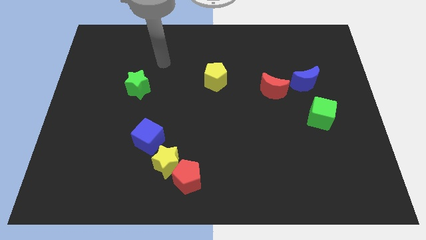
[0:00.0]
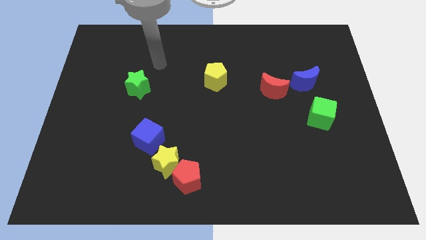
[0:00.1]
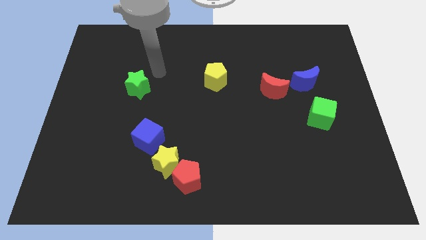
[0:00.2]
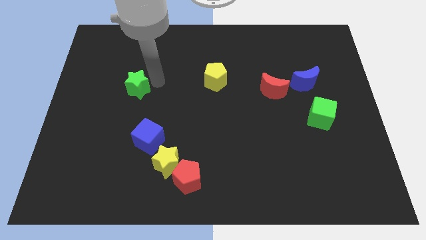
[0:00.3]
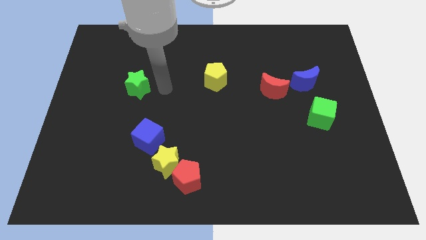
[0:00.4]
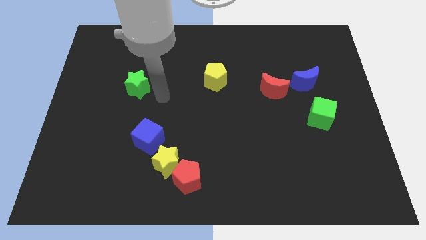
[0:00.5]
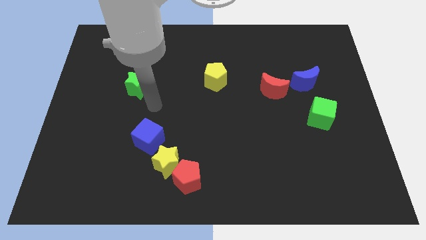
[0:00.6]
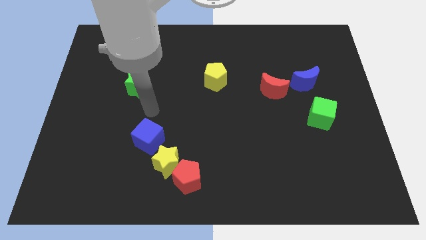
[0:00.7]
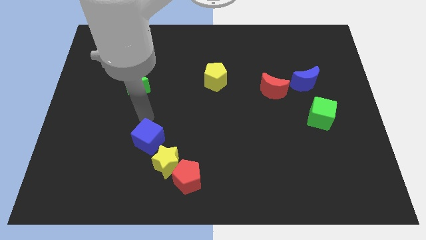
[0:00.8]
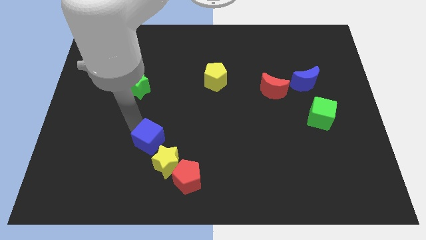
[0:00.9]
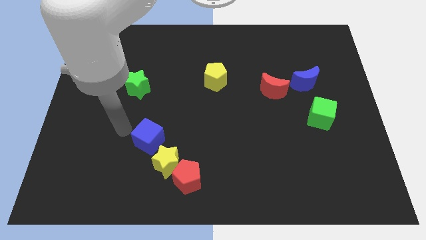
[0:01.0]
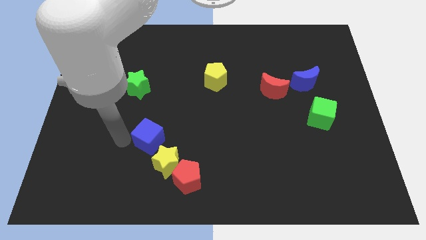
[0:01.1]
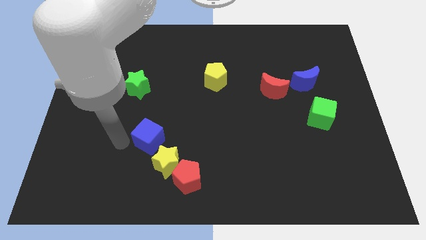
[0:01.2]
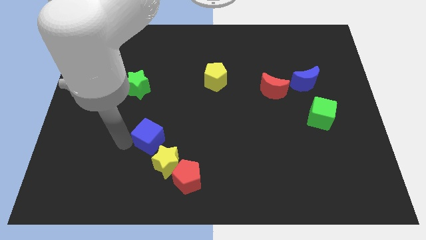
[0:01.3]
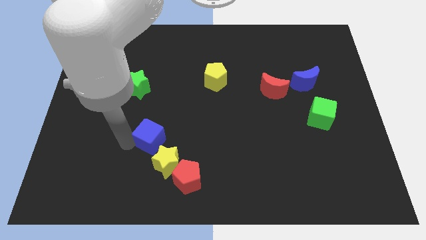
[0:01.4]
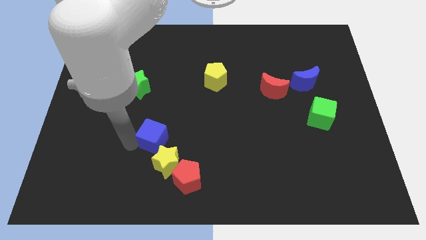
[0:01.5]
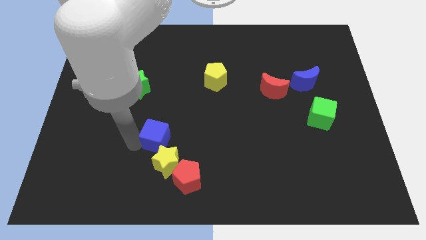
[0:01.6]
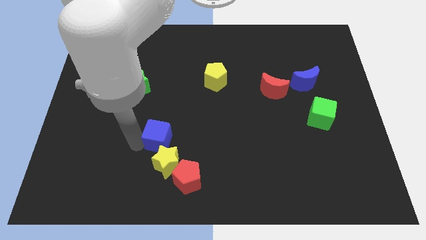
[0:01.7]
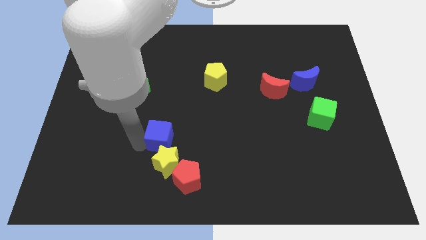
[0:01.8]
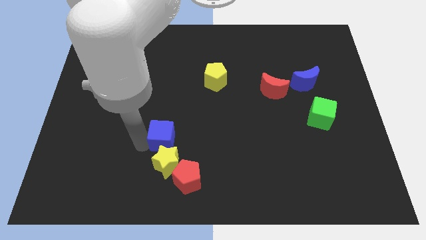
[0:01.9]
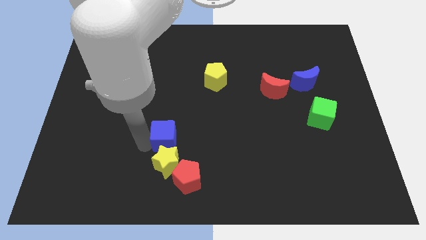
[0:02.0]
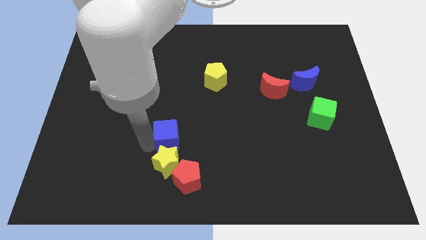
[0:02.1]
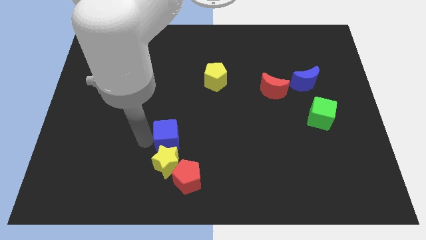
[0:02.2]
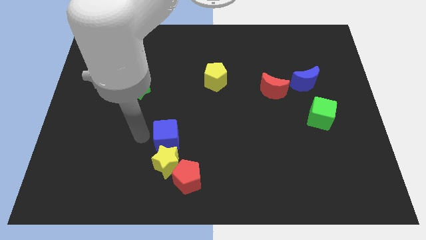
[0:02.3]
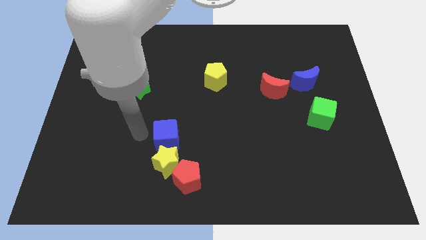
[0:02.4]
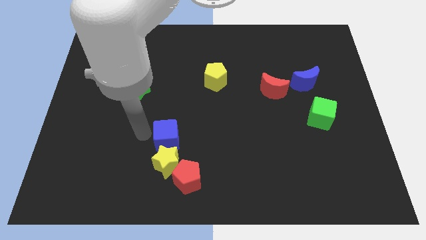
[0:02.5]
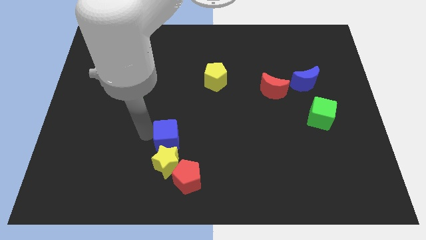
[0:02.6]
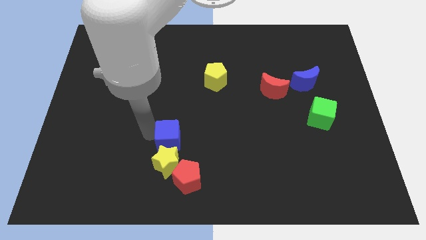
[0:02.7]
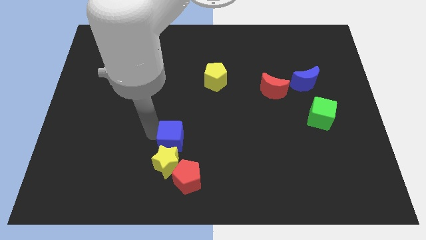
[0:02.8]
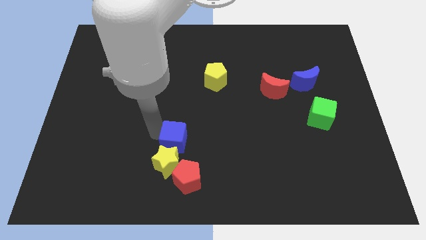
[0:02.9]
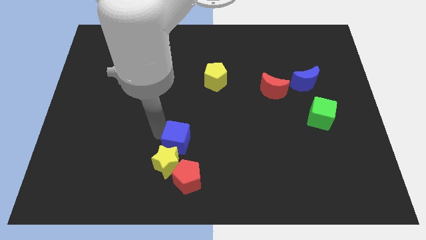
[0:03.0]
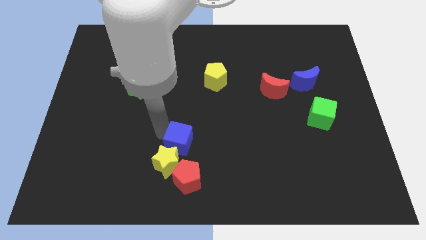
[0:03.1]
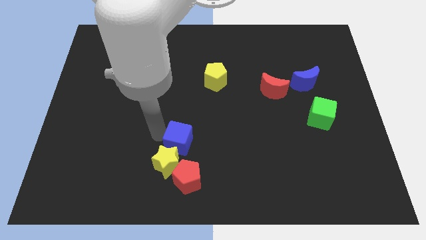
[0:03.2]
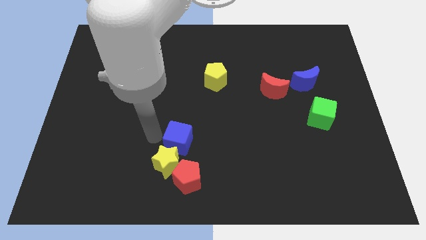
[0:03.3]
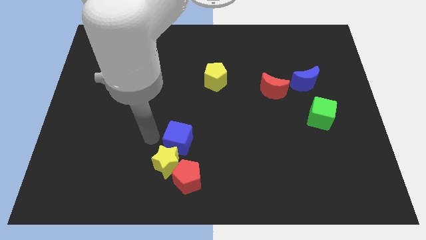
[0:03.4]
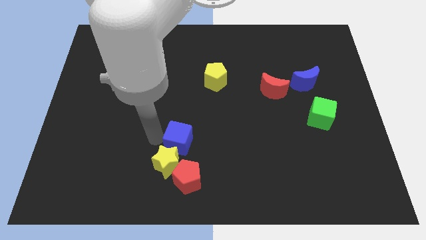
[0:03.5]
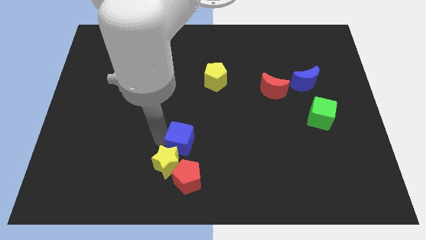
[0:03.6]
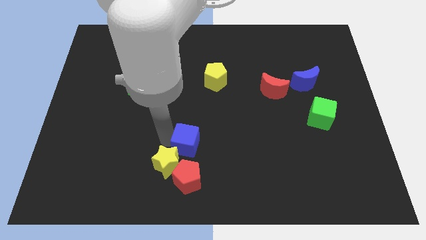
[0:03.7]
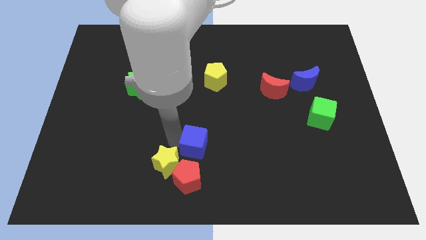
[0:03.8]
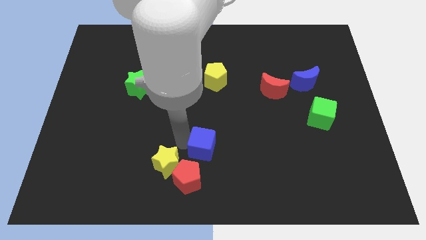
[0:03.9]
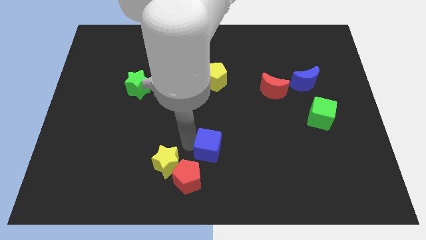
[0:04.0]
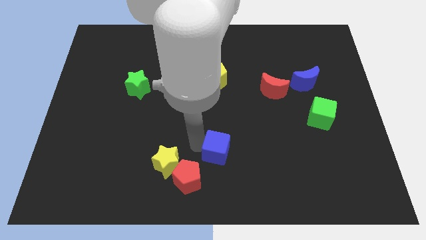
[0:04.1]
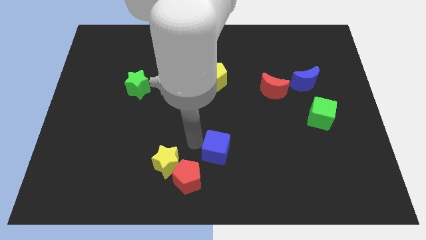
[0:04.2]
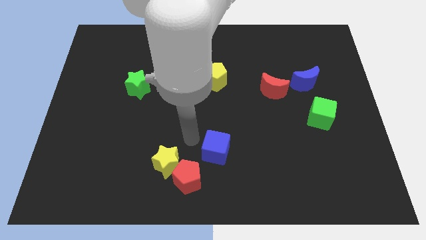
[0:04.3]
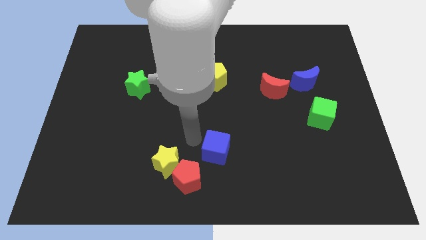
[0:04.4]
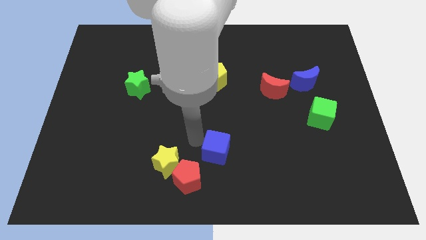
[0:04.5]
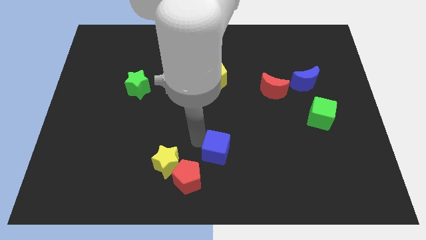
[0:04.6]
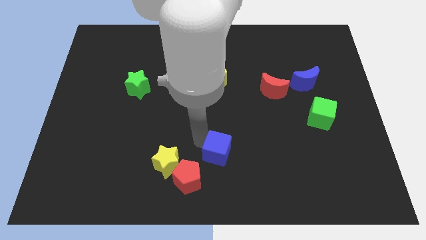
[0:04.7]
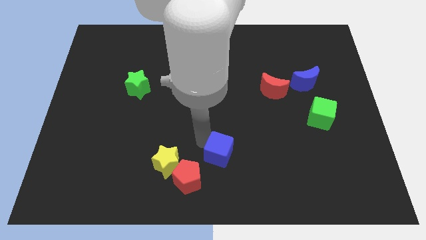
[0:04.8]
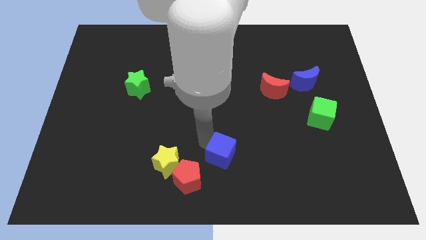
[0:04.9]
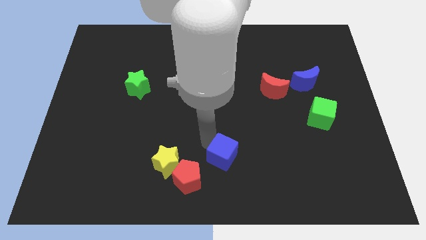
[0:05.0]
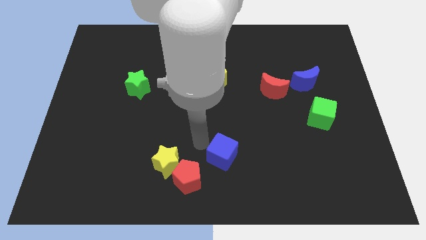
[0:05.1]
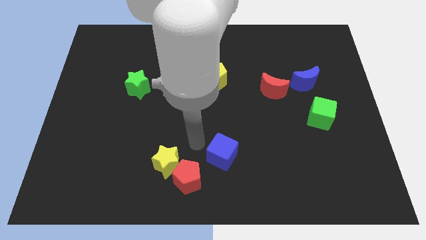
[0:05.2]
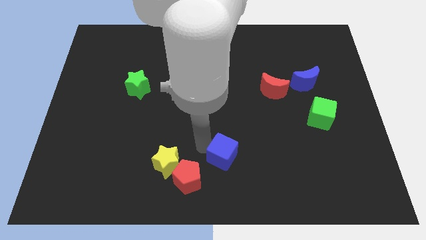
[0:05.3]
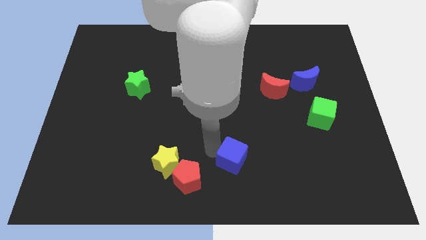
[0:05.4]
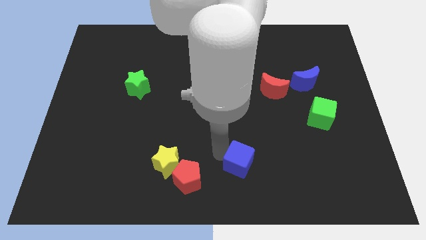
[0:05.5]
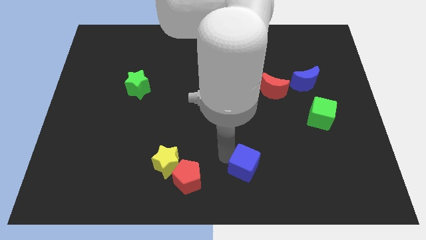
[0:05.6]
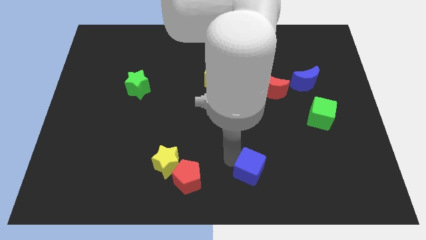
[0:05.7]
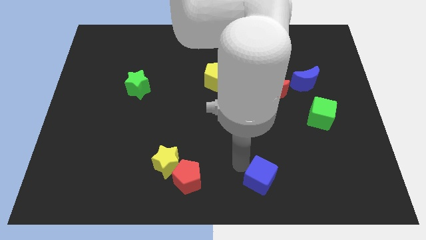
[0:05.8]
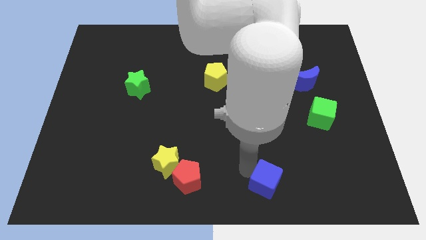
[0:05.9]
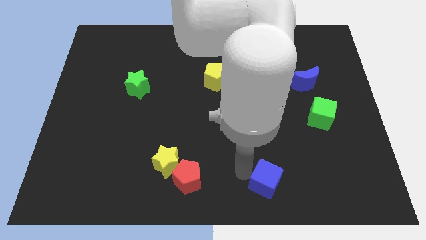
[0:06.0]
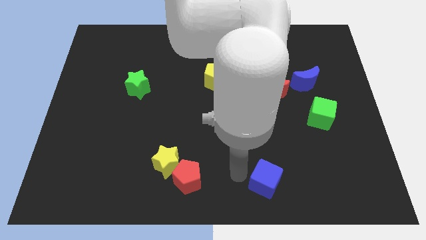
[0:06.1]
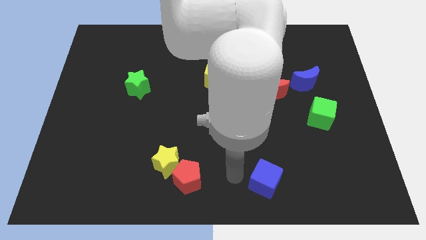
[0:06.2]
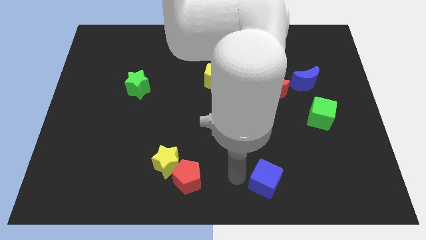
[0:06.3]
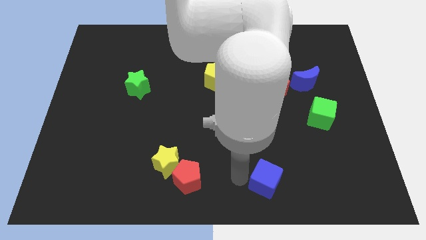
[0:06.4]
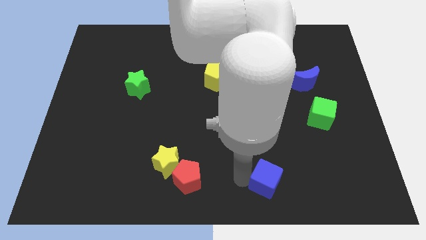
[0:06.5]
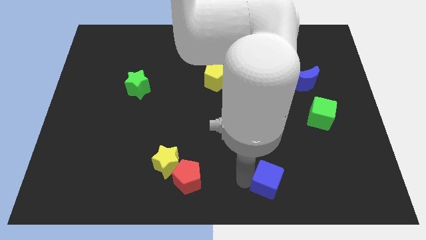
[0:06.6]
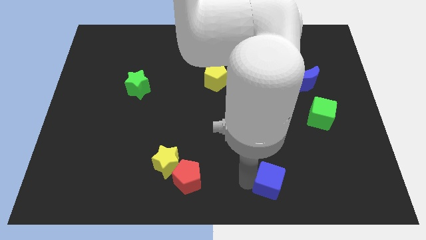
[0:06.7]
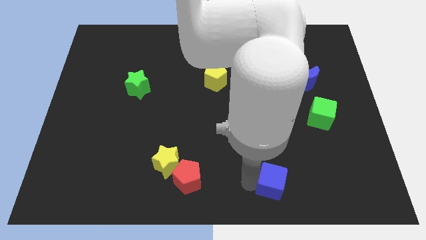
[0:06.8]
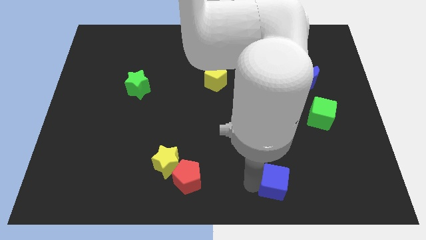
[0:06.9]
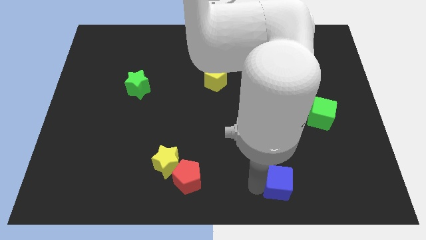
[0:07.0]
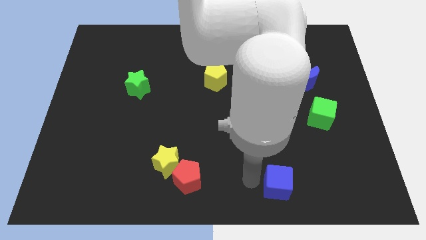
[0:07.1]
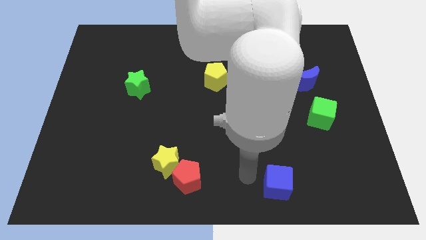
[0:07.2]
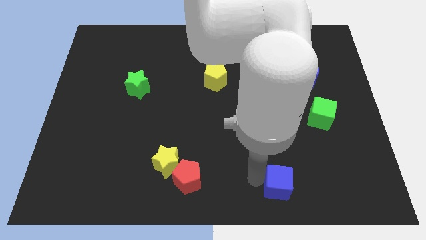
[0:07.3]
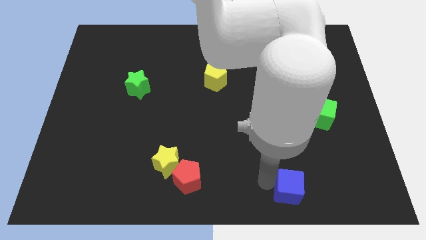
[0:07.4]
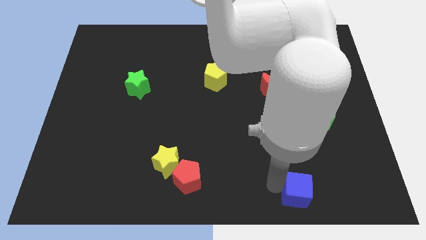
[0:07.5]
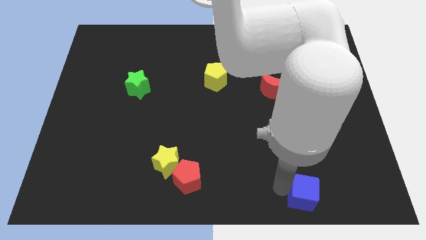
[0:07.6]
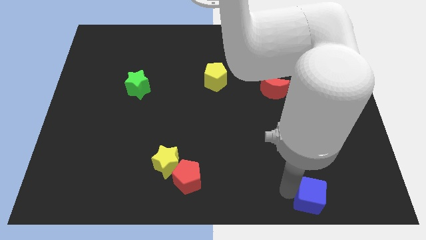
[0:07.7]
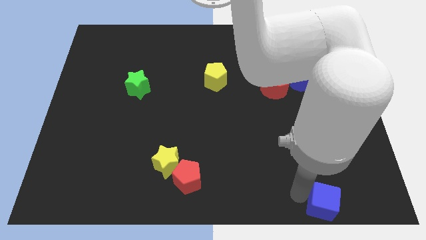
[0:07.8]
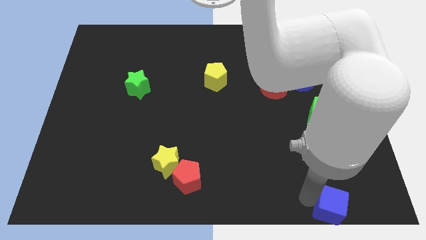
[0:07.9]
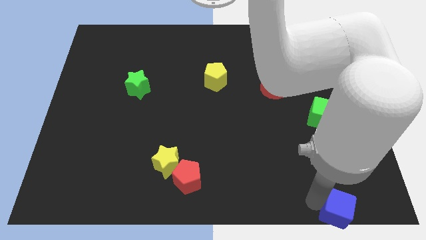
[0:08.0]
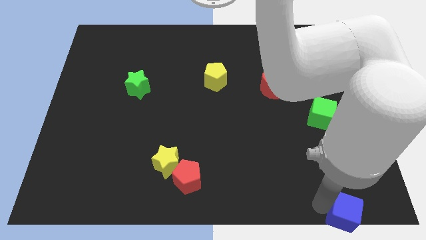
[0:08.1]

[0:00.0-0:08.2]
slide the blue cube to the bottom right
